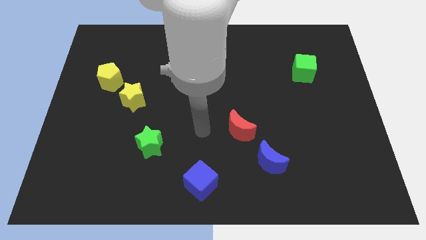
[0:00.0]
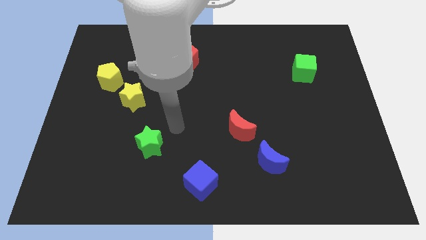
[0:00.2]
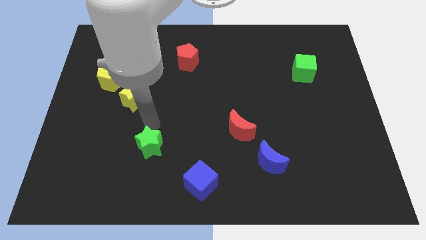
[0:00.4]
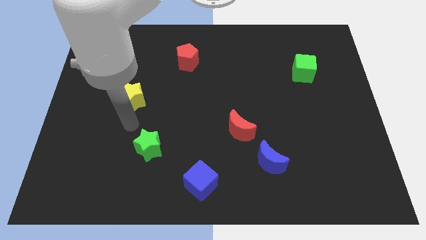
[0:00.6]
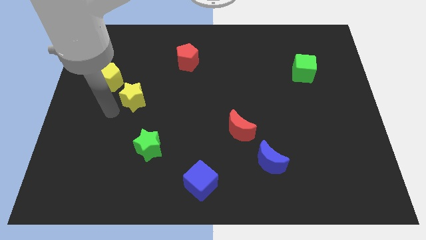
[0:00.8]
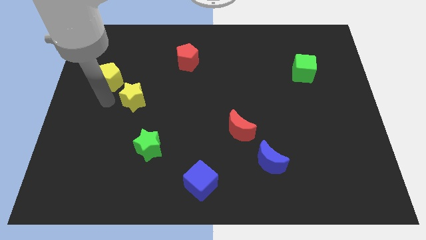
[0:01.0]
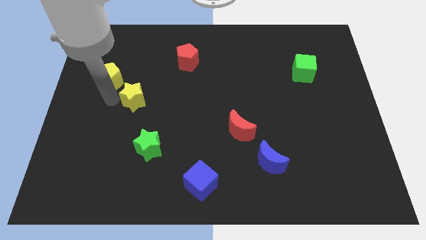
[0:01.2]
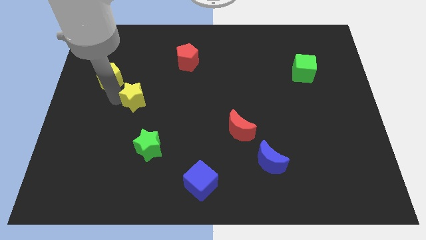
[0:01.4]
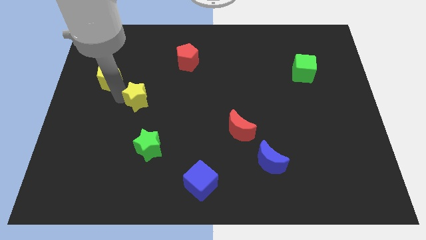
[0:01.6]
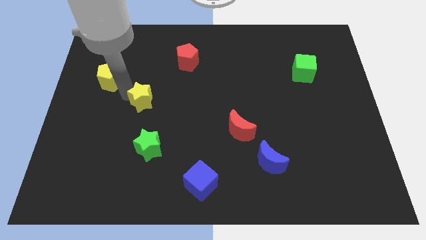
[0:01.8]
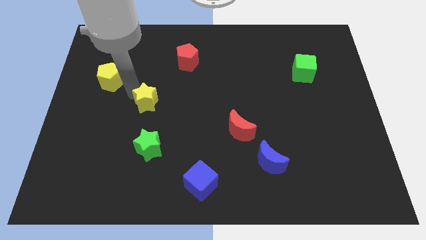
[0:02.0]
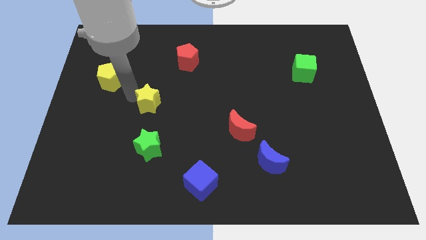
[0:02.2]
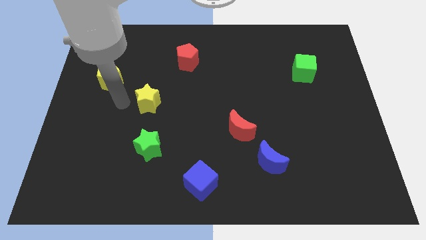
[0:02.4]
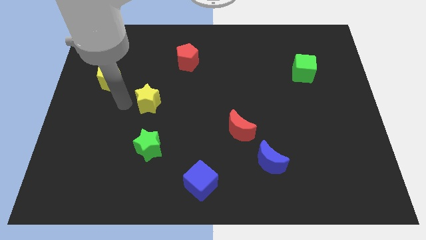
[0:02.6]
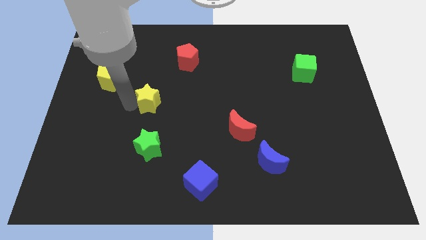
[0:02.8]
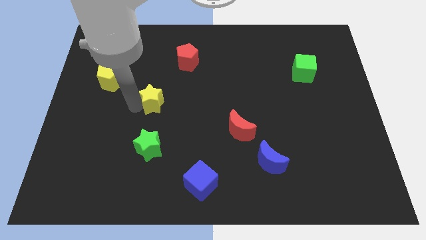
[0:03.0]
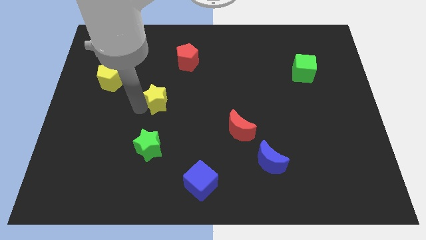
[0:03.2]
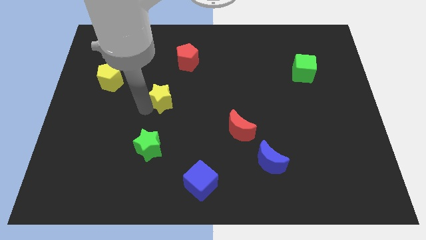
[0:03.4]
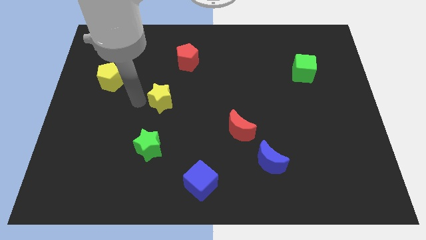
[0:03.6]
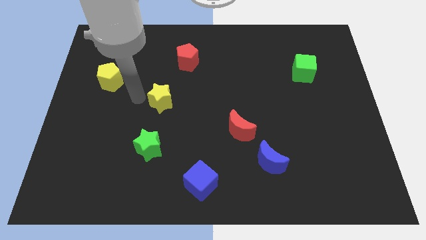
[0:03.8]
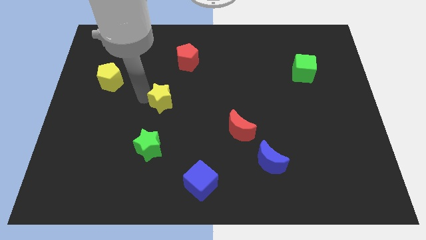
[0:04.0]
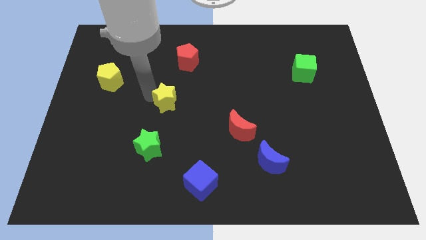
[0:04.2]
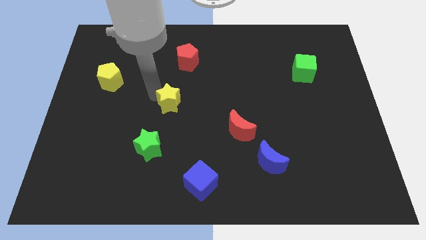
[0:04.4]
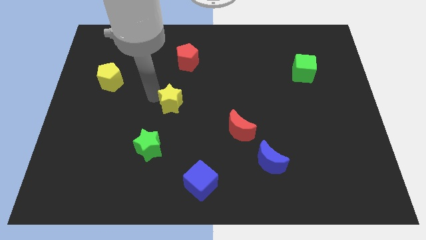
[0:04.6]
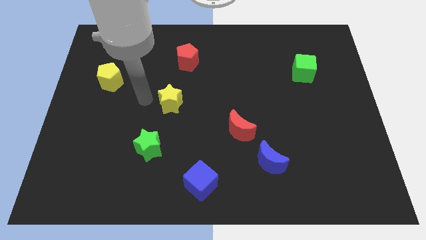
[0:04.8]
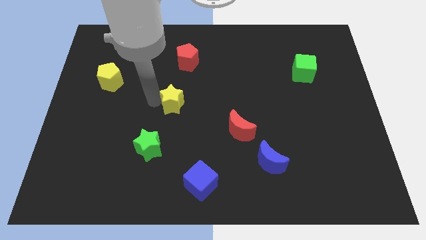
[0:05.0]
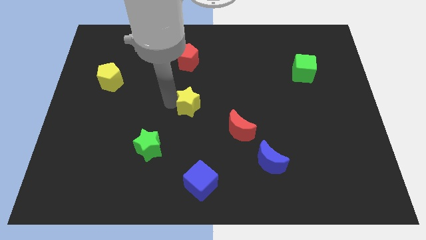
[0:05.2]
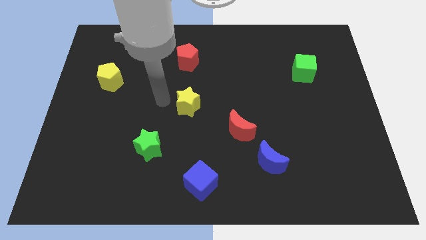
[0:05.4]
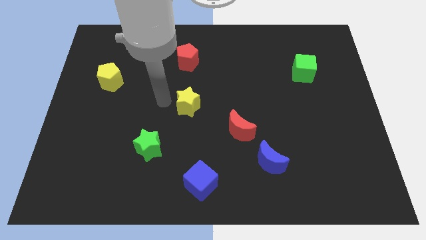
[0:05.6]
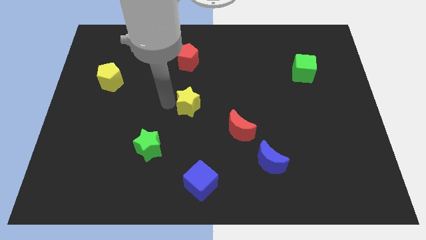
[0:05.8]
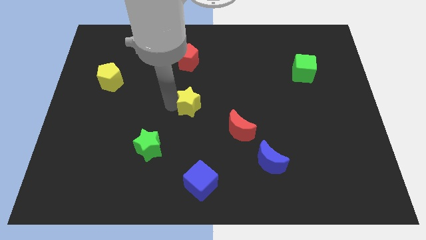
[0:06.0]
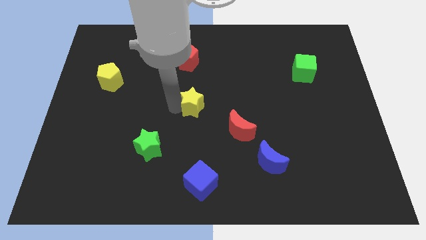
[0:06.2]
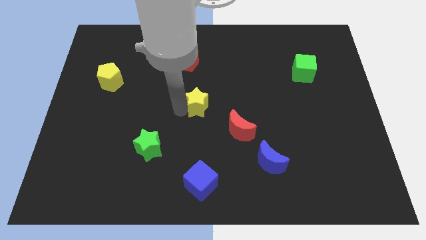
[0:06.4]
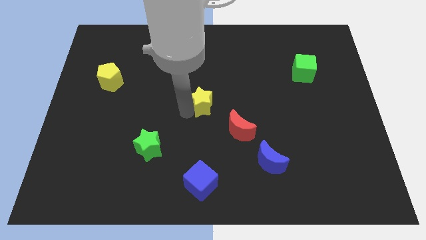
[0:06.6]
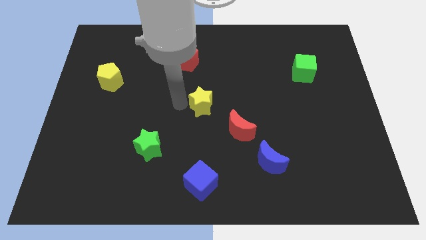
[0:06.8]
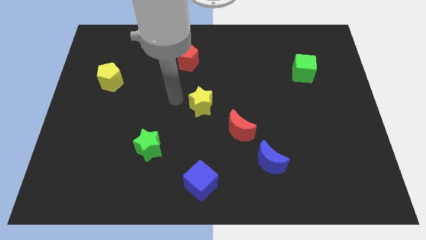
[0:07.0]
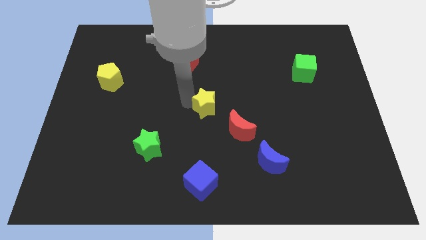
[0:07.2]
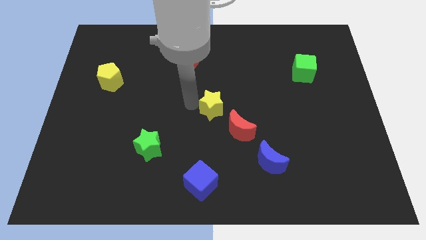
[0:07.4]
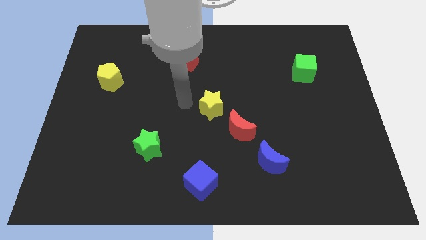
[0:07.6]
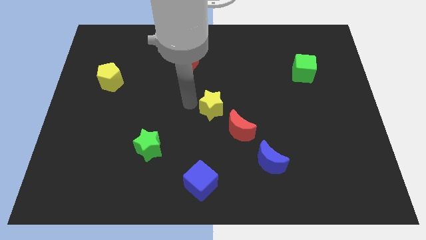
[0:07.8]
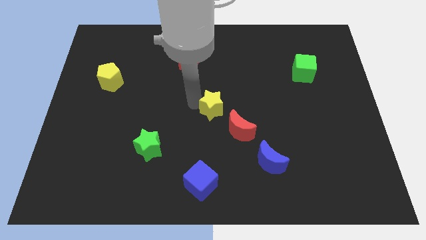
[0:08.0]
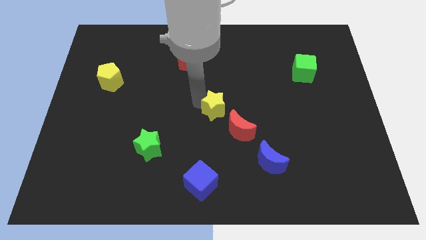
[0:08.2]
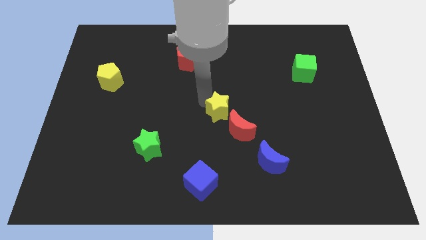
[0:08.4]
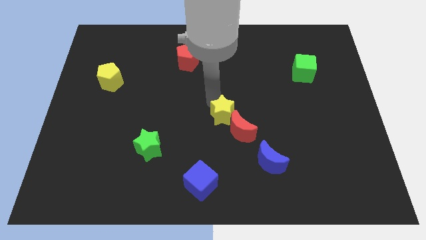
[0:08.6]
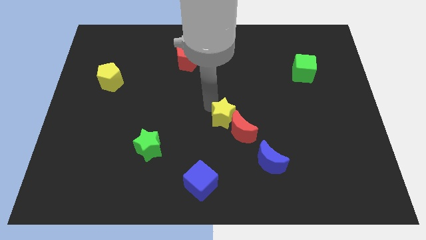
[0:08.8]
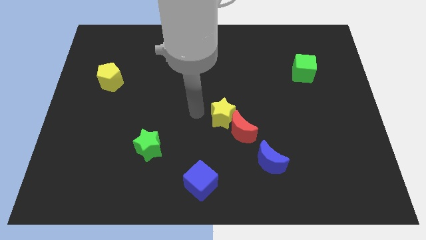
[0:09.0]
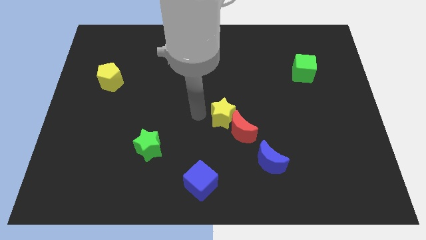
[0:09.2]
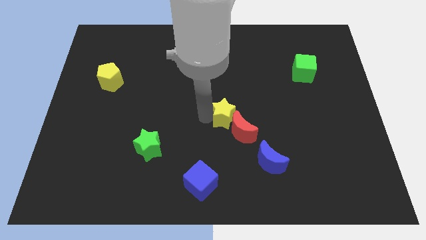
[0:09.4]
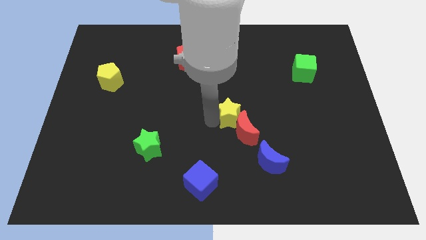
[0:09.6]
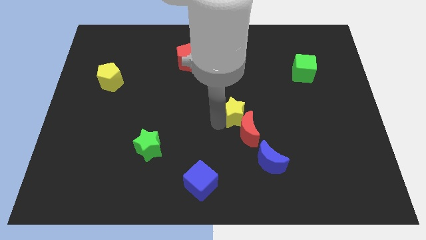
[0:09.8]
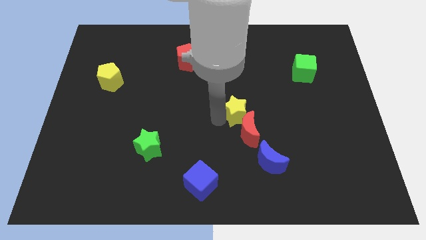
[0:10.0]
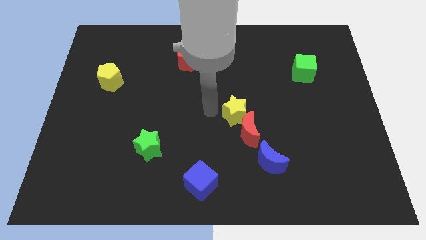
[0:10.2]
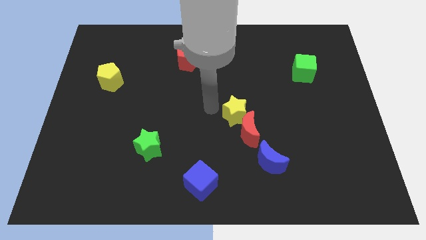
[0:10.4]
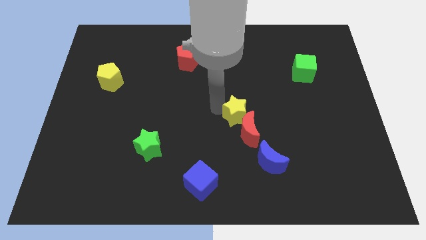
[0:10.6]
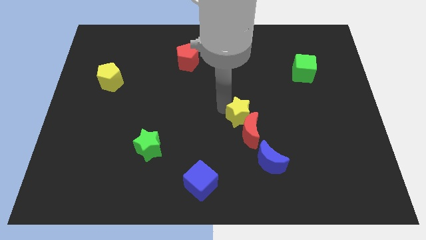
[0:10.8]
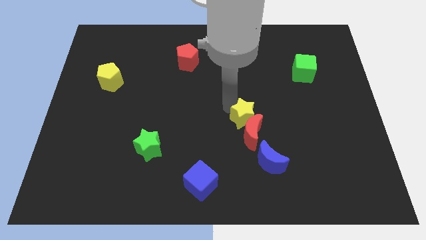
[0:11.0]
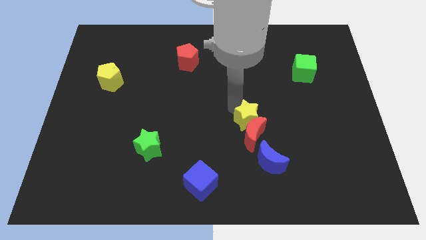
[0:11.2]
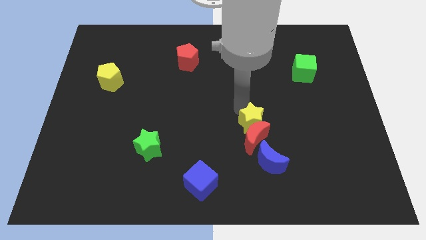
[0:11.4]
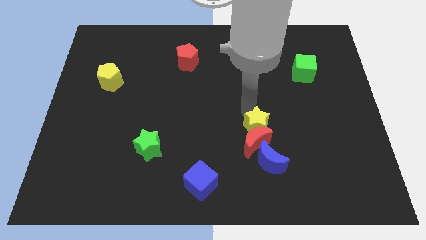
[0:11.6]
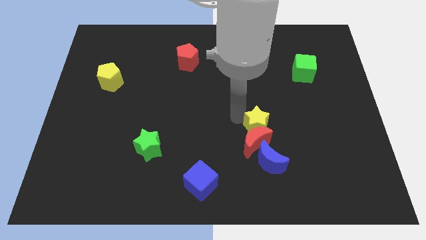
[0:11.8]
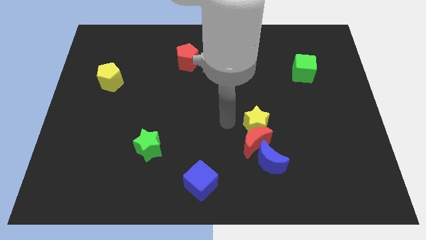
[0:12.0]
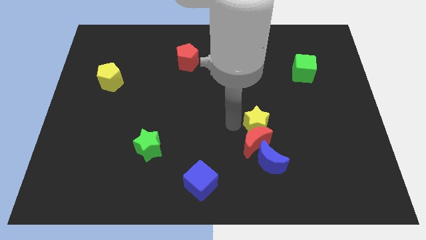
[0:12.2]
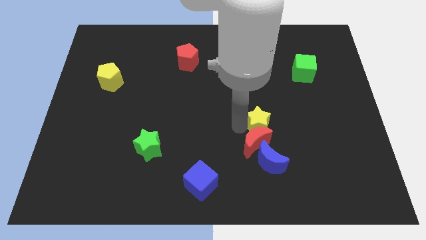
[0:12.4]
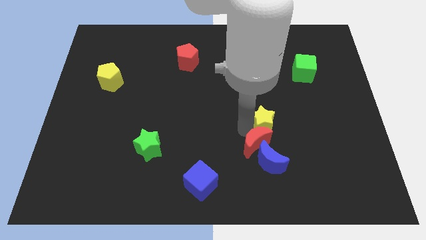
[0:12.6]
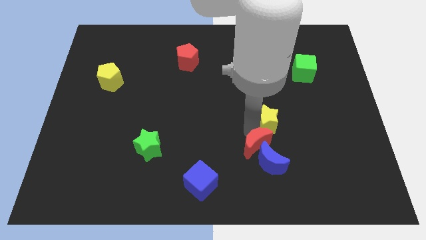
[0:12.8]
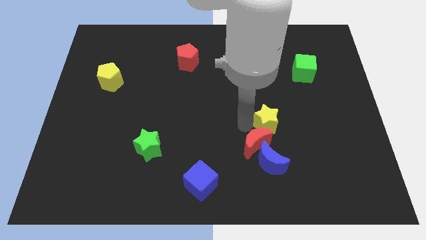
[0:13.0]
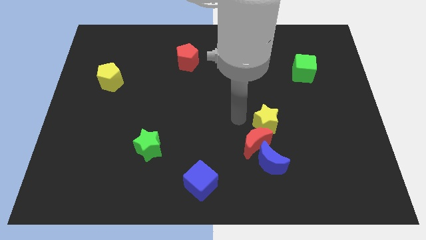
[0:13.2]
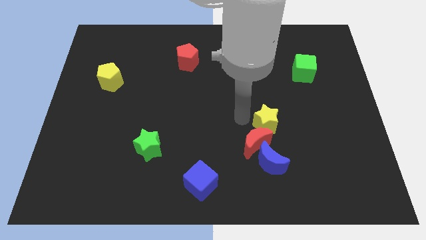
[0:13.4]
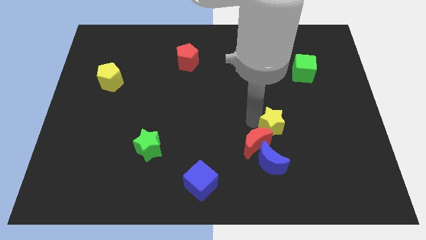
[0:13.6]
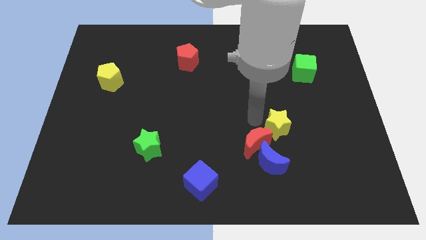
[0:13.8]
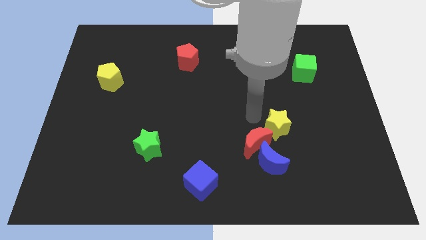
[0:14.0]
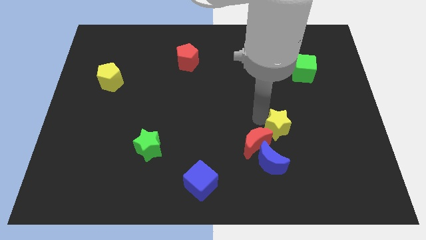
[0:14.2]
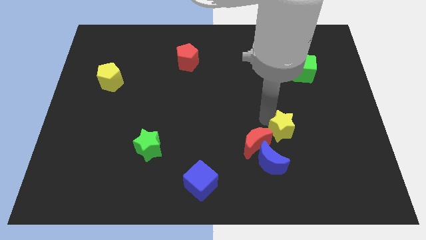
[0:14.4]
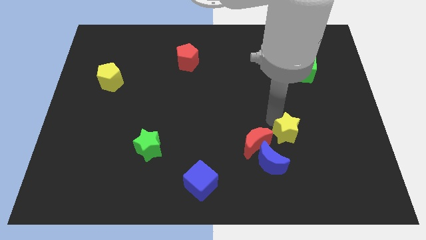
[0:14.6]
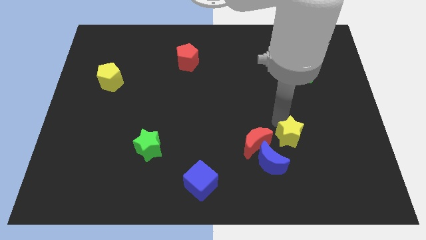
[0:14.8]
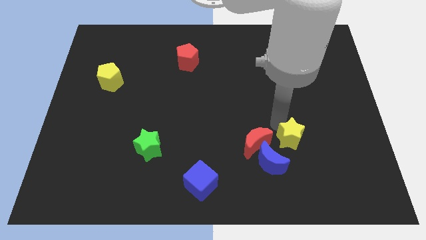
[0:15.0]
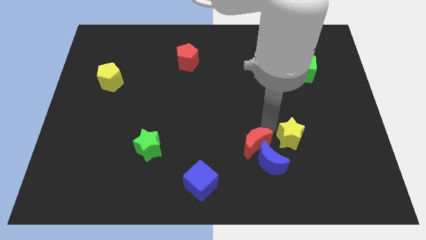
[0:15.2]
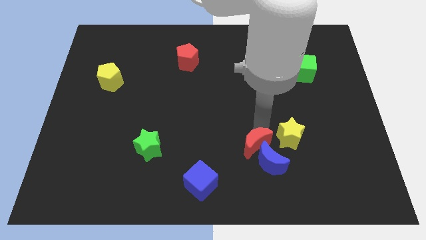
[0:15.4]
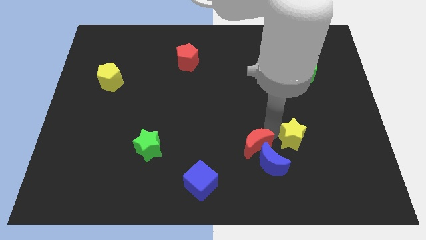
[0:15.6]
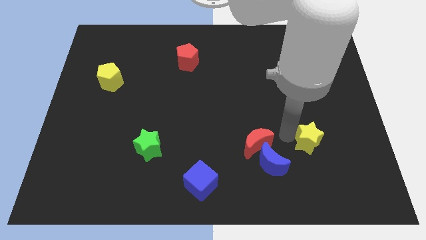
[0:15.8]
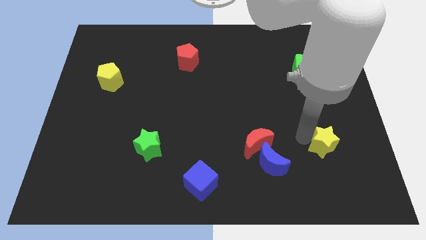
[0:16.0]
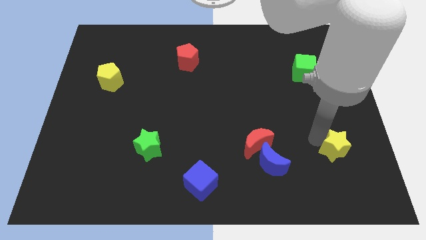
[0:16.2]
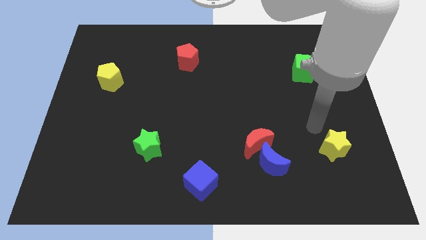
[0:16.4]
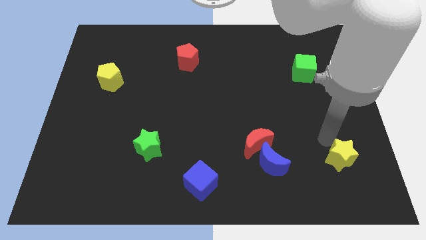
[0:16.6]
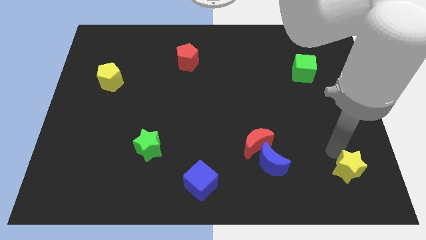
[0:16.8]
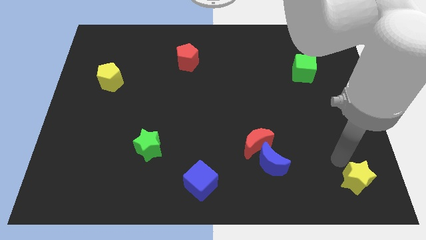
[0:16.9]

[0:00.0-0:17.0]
put the yellow star to the bottom right corner
